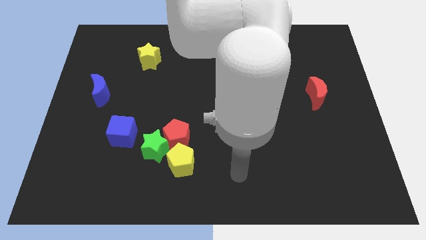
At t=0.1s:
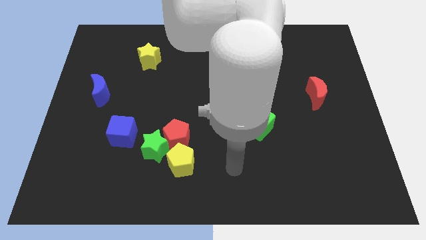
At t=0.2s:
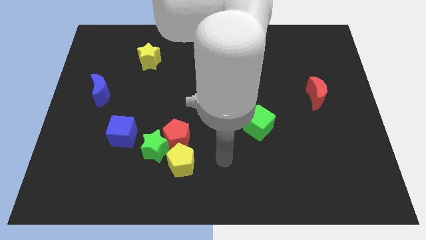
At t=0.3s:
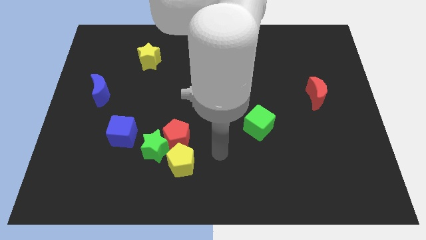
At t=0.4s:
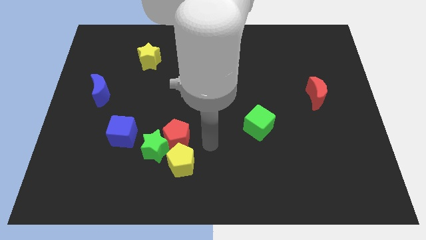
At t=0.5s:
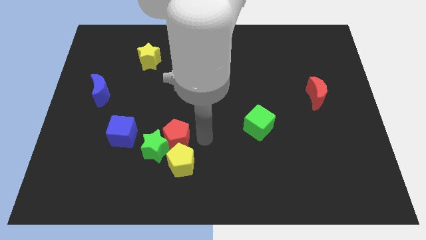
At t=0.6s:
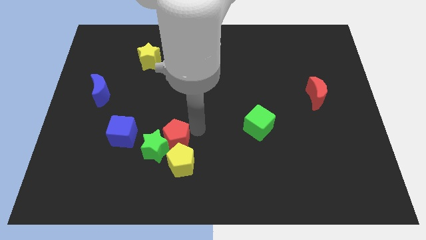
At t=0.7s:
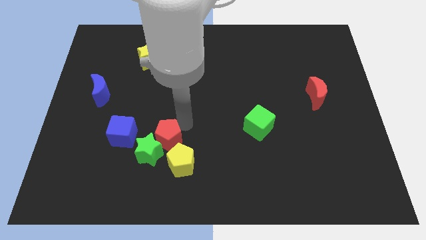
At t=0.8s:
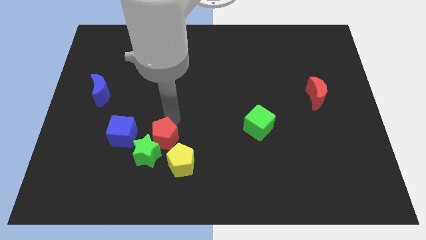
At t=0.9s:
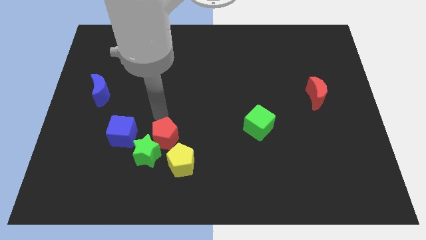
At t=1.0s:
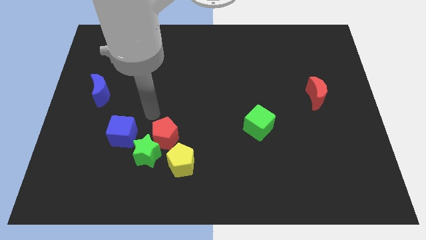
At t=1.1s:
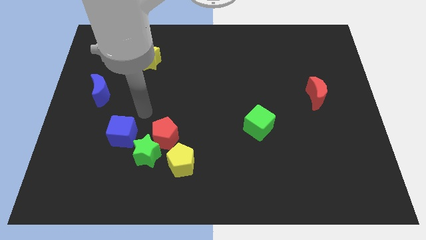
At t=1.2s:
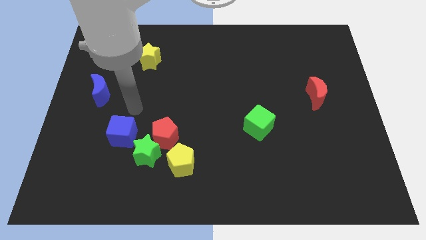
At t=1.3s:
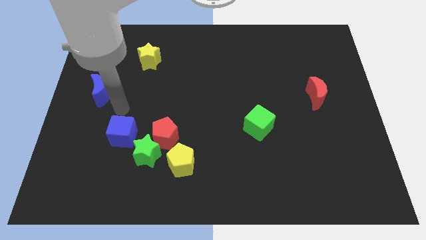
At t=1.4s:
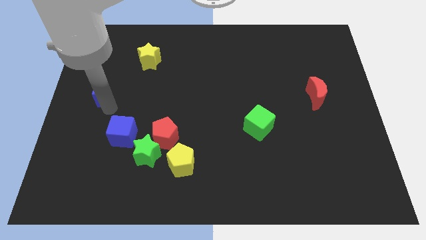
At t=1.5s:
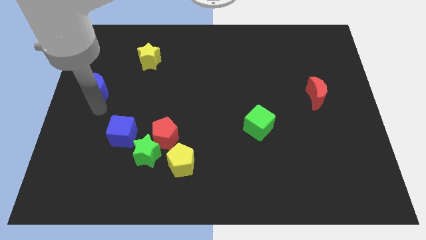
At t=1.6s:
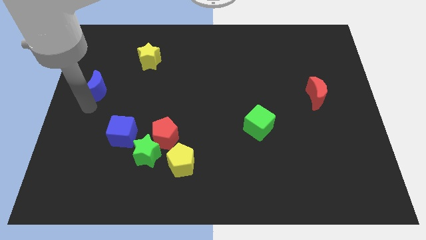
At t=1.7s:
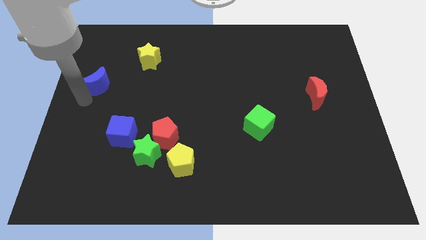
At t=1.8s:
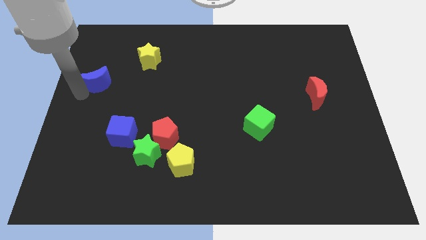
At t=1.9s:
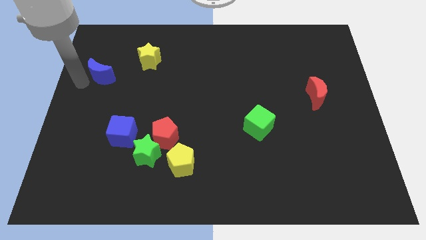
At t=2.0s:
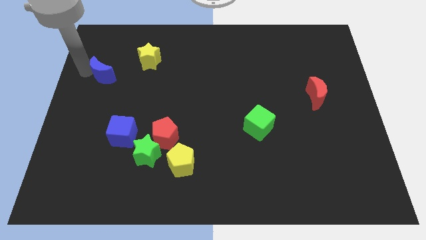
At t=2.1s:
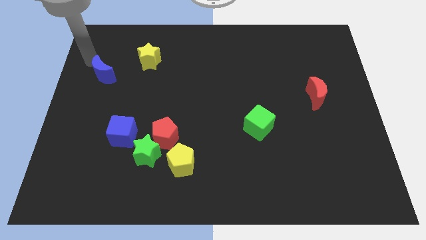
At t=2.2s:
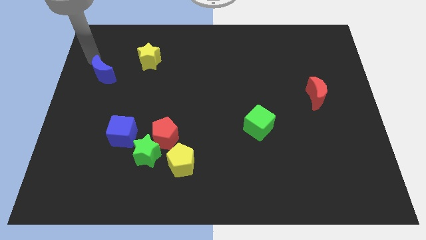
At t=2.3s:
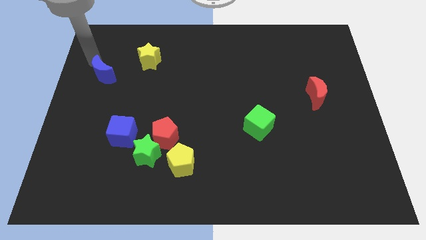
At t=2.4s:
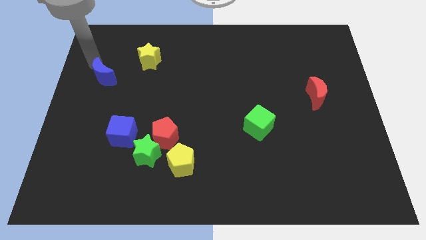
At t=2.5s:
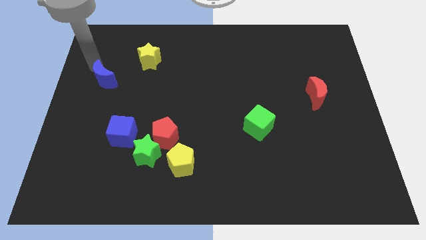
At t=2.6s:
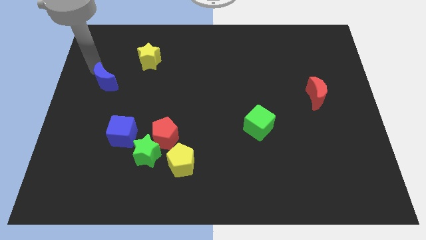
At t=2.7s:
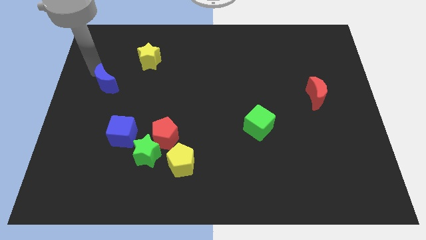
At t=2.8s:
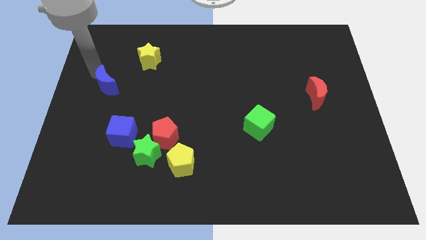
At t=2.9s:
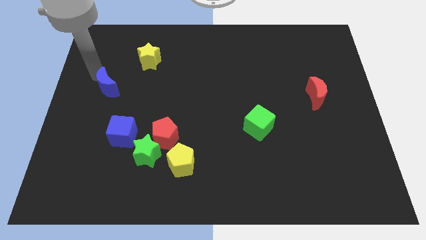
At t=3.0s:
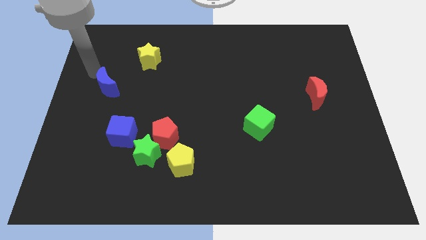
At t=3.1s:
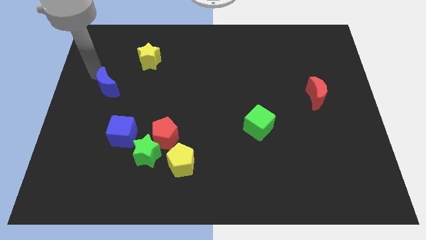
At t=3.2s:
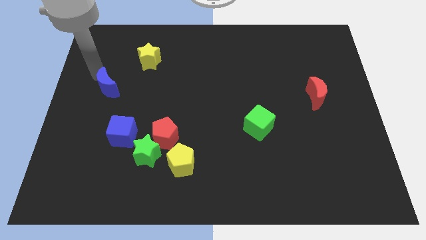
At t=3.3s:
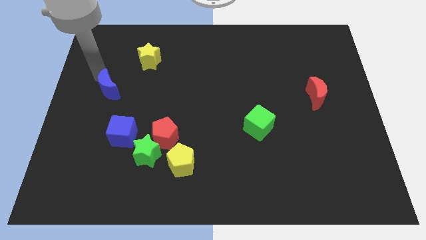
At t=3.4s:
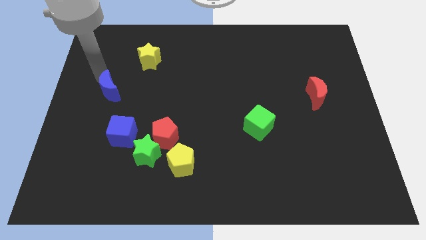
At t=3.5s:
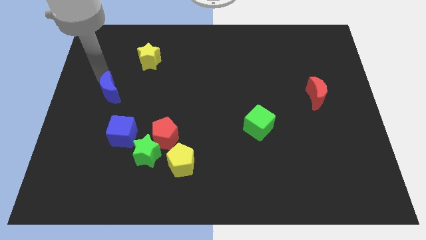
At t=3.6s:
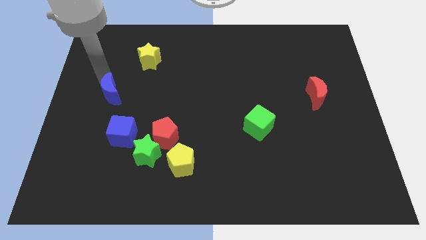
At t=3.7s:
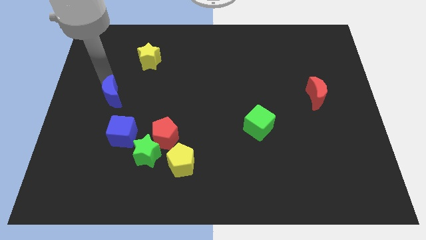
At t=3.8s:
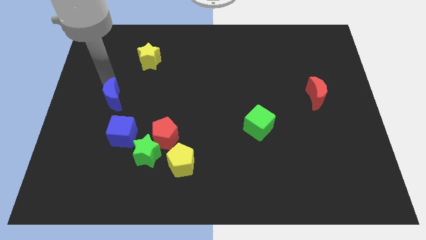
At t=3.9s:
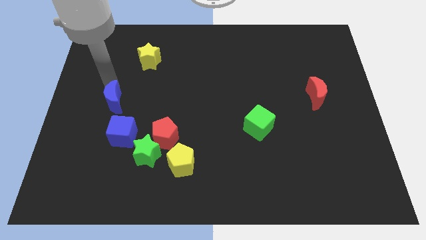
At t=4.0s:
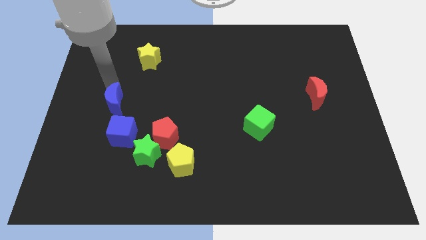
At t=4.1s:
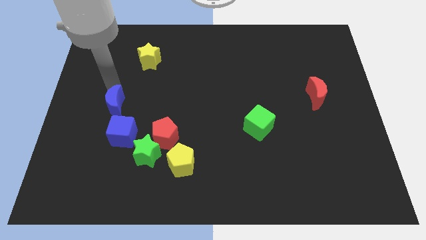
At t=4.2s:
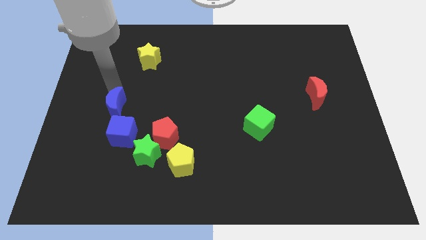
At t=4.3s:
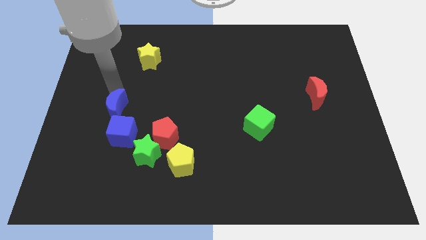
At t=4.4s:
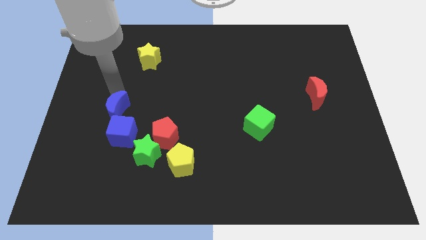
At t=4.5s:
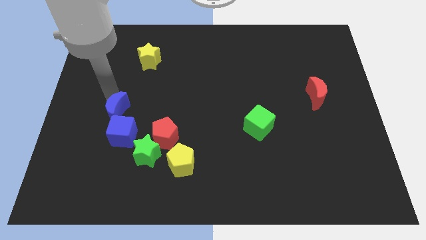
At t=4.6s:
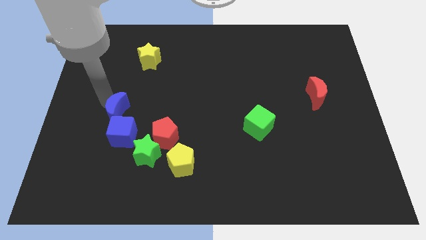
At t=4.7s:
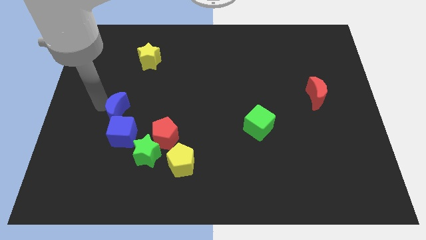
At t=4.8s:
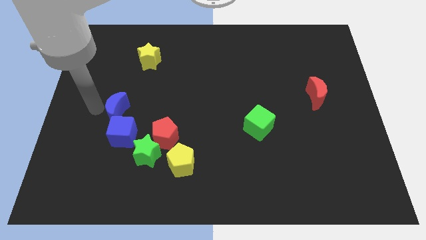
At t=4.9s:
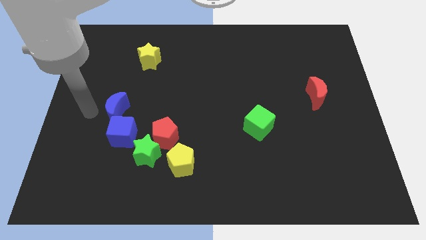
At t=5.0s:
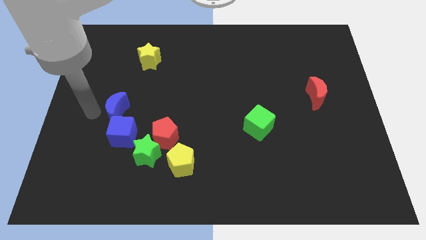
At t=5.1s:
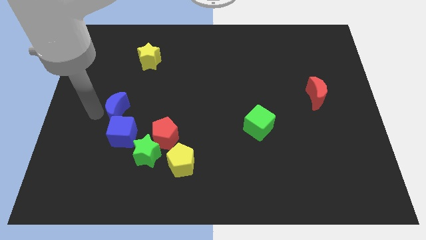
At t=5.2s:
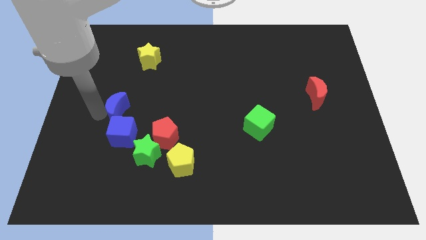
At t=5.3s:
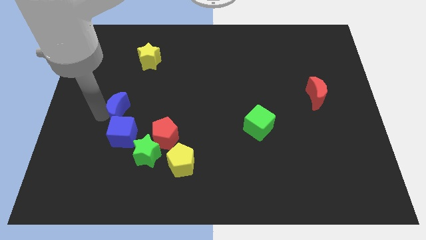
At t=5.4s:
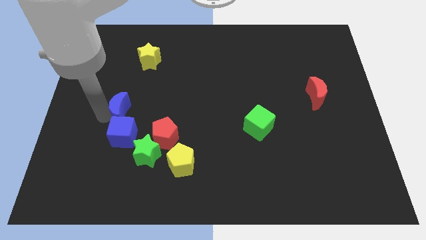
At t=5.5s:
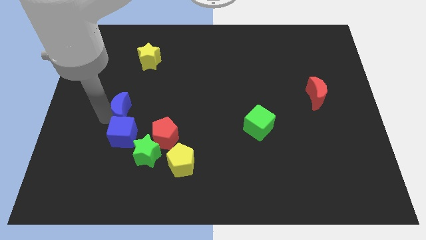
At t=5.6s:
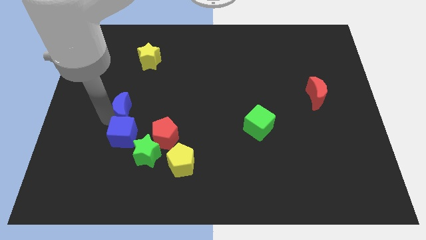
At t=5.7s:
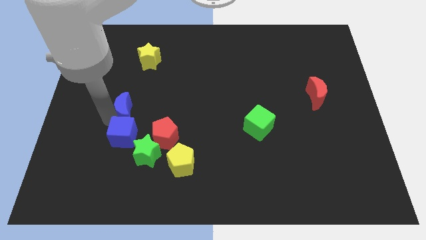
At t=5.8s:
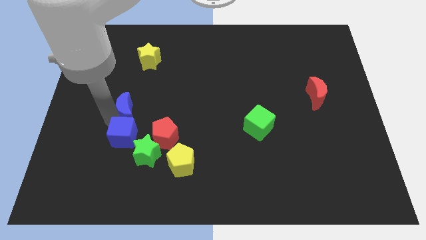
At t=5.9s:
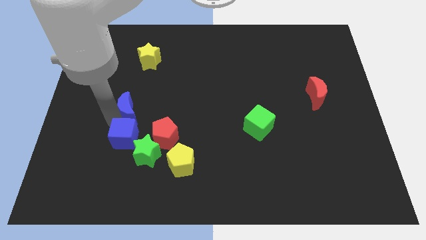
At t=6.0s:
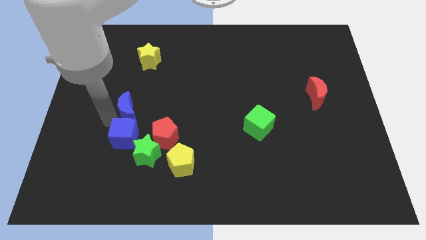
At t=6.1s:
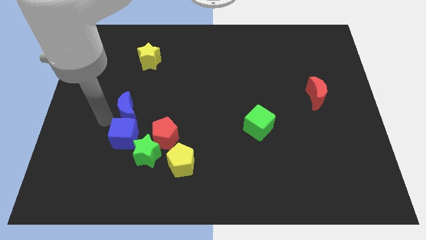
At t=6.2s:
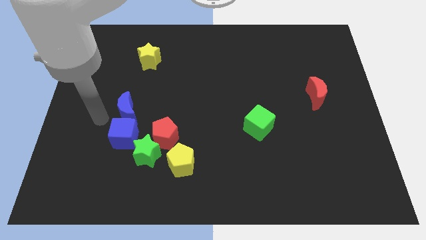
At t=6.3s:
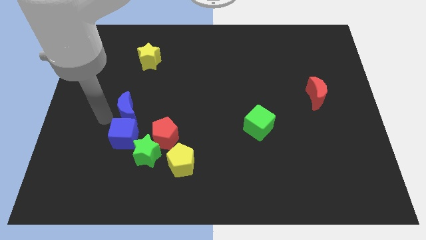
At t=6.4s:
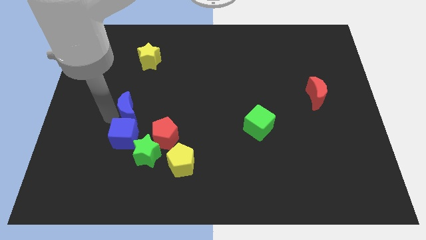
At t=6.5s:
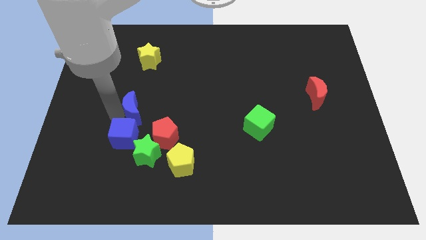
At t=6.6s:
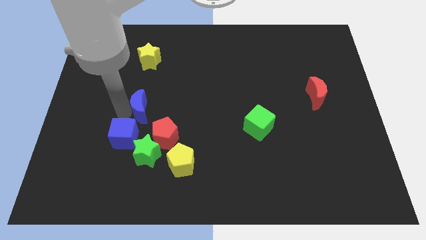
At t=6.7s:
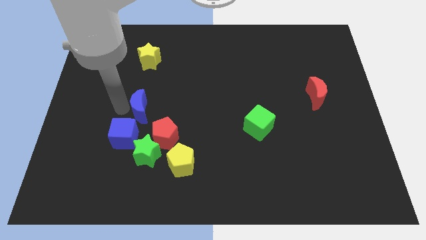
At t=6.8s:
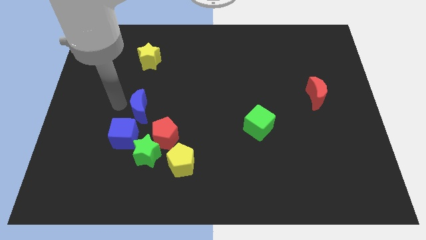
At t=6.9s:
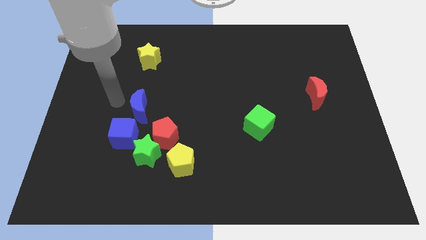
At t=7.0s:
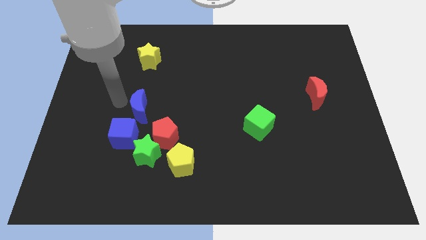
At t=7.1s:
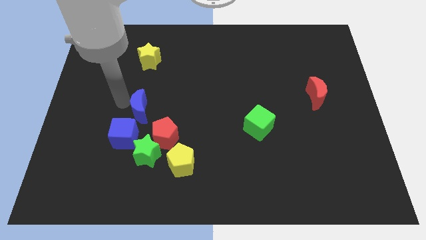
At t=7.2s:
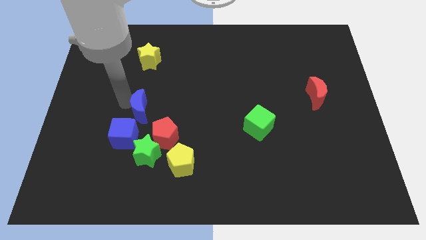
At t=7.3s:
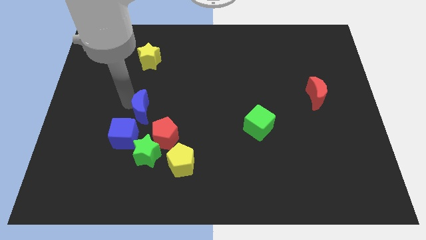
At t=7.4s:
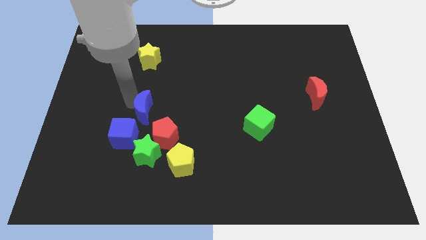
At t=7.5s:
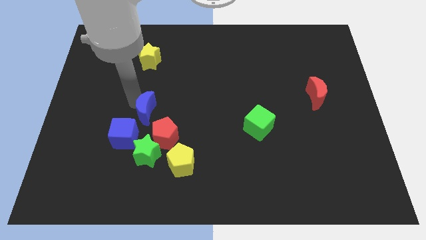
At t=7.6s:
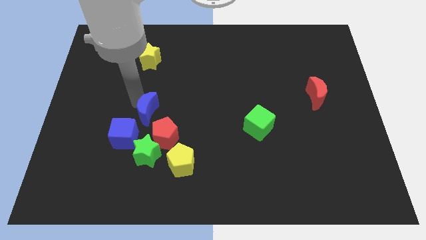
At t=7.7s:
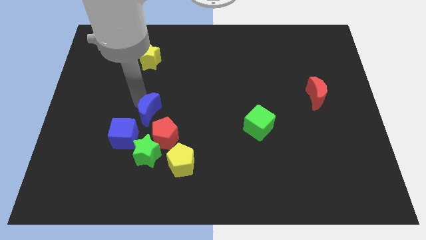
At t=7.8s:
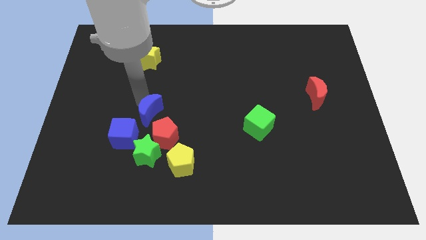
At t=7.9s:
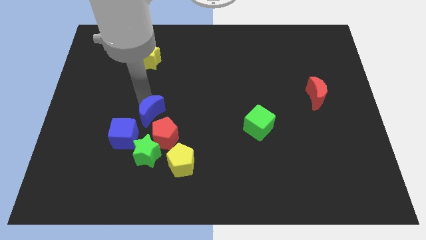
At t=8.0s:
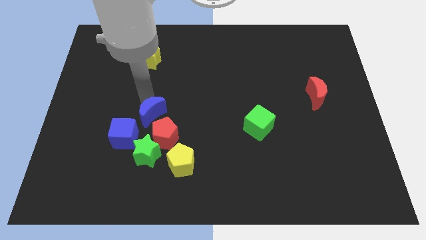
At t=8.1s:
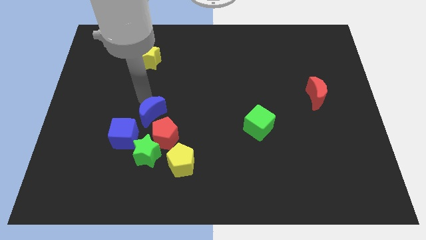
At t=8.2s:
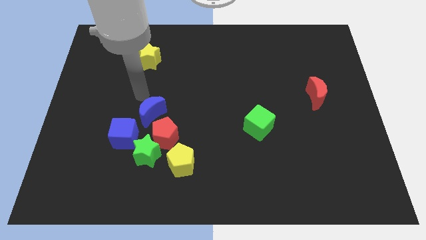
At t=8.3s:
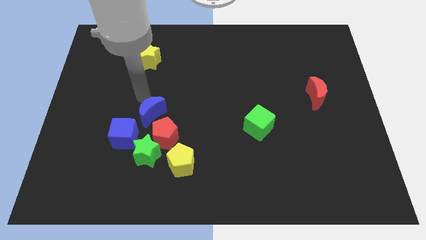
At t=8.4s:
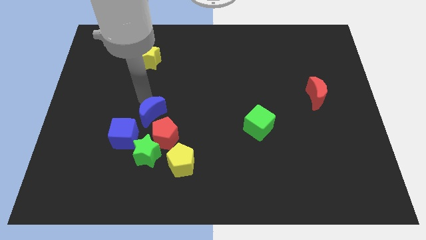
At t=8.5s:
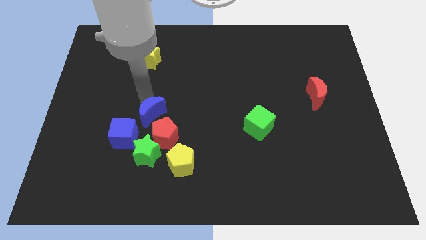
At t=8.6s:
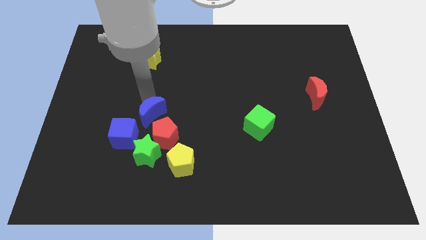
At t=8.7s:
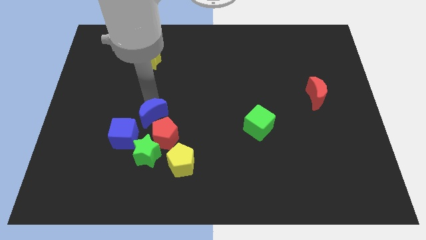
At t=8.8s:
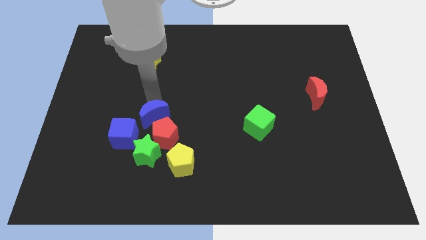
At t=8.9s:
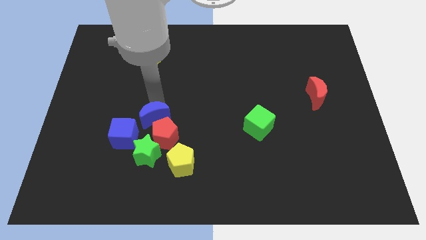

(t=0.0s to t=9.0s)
slide the blue moon close to the red pentagon
